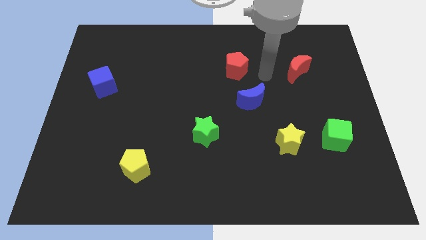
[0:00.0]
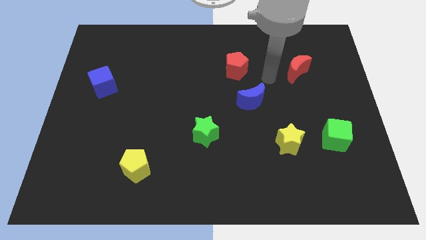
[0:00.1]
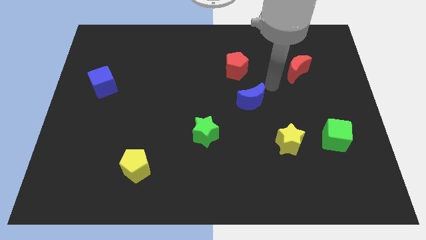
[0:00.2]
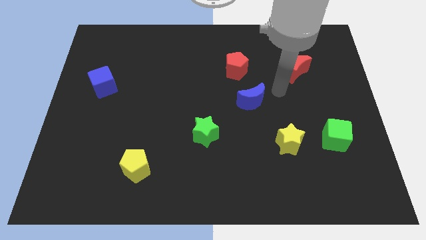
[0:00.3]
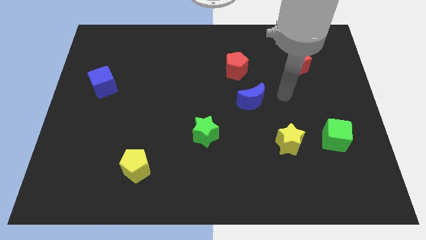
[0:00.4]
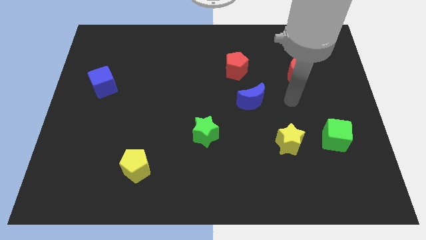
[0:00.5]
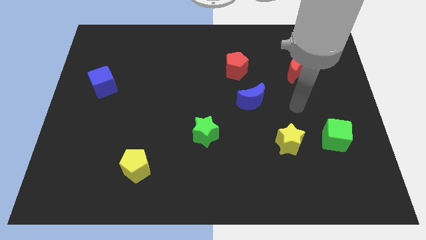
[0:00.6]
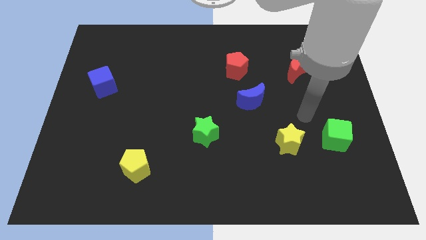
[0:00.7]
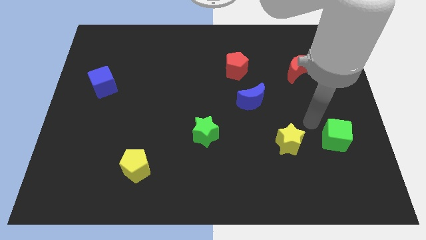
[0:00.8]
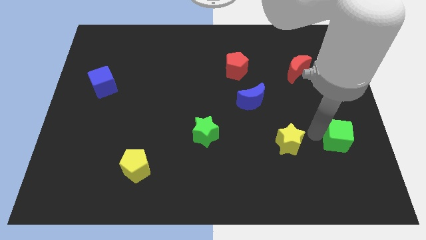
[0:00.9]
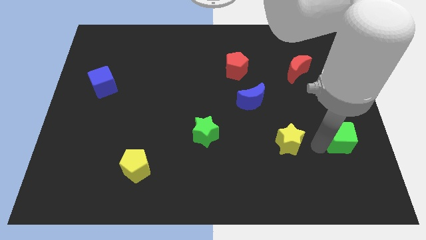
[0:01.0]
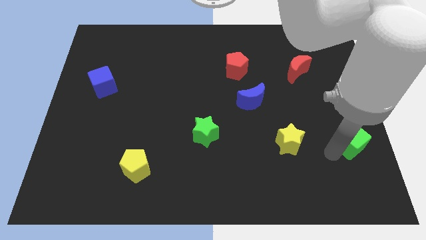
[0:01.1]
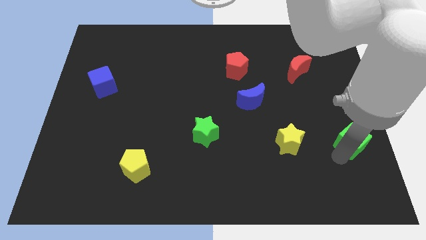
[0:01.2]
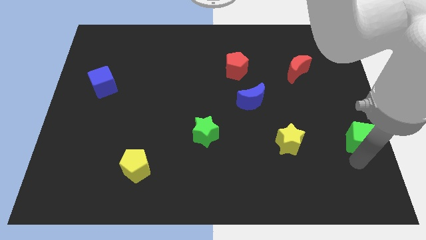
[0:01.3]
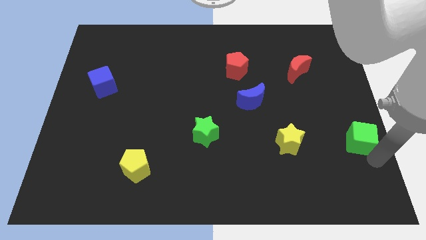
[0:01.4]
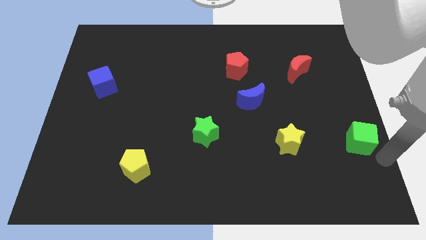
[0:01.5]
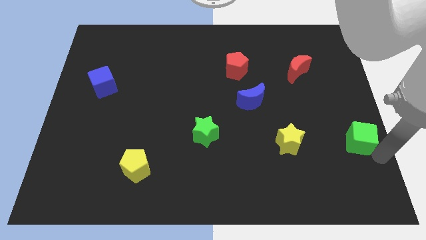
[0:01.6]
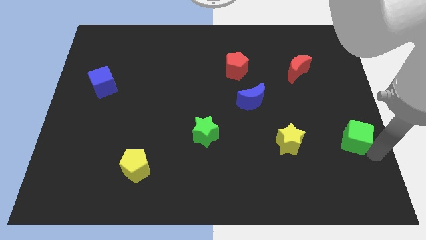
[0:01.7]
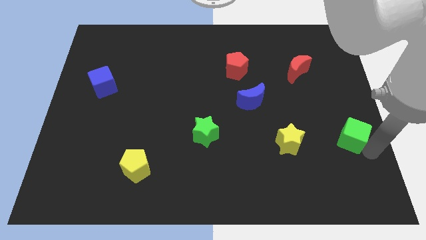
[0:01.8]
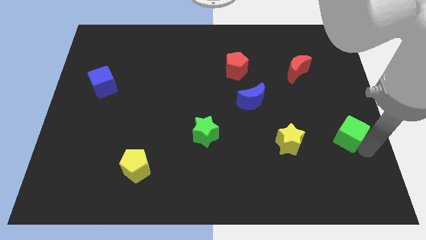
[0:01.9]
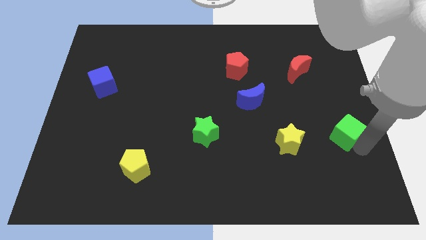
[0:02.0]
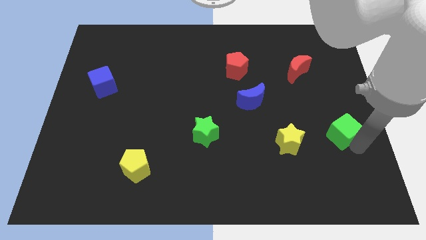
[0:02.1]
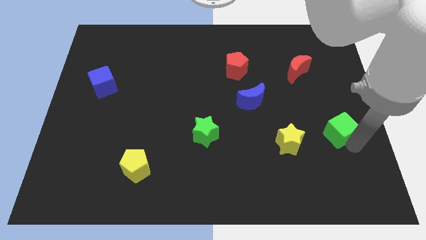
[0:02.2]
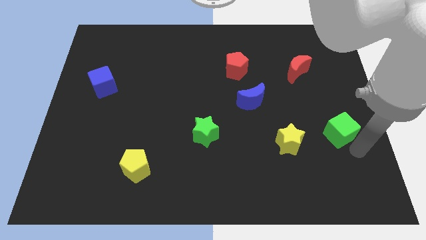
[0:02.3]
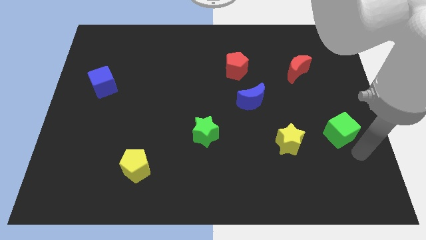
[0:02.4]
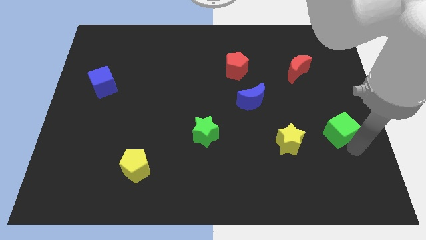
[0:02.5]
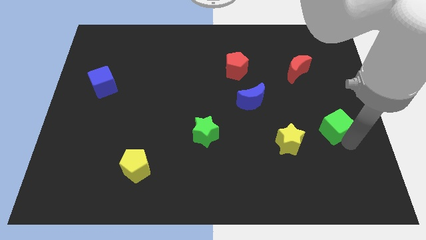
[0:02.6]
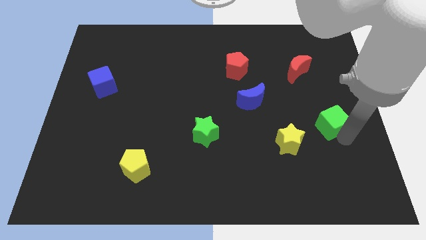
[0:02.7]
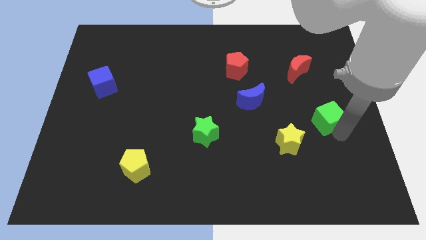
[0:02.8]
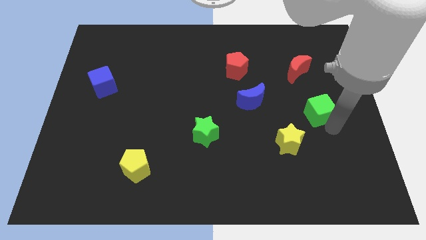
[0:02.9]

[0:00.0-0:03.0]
slightly push the green cube up

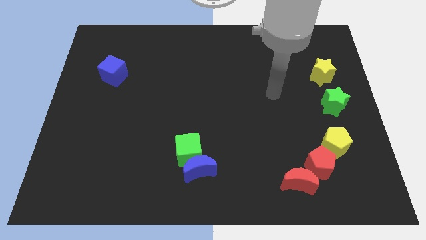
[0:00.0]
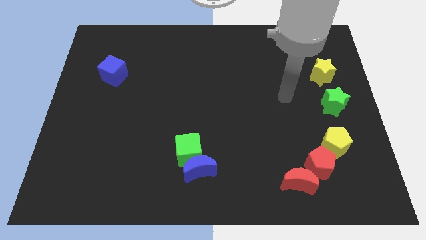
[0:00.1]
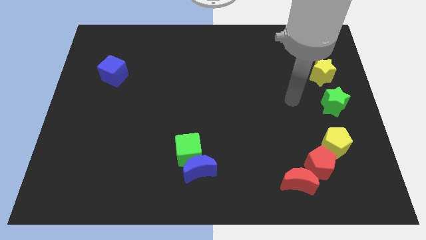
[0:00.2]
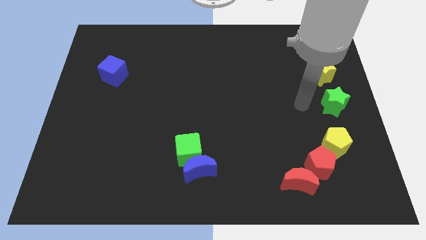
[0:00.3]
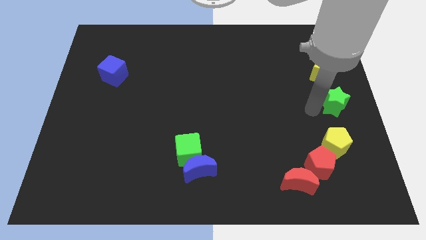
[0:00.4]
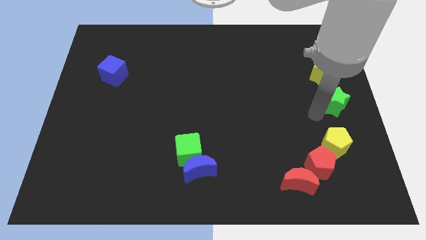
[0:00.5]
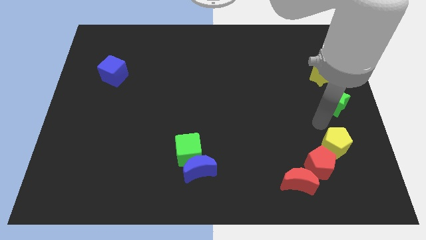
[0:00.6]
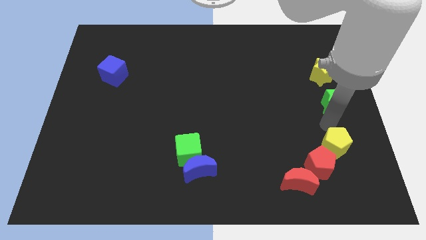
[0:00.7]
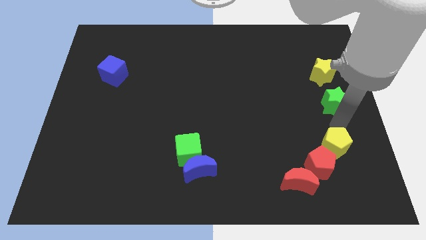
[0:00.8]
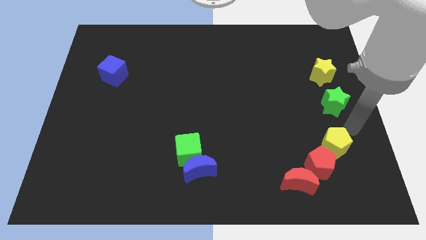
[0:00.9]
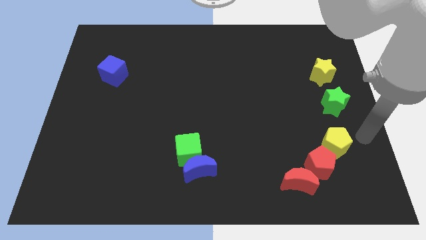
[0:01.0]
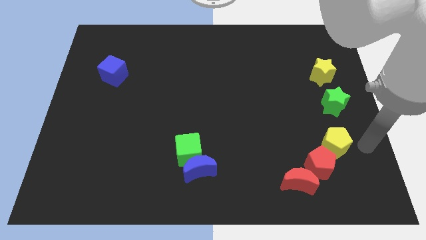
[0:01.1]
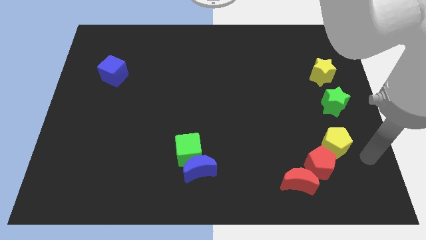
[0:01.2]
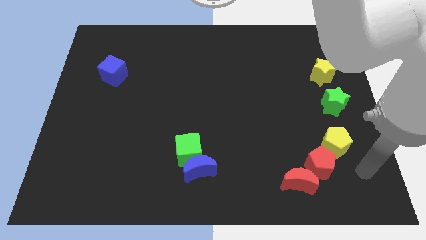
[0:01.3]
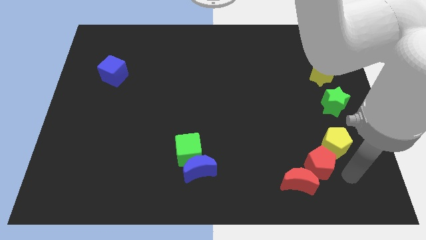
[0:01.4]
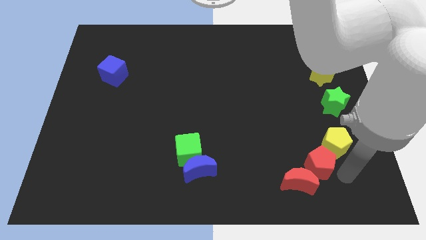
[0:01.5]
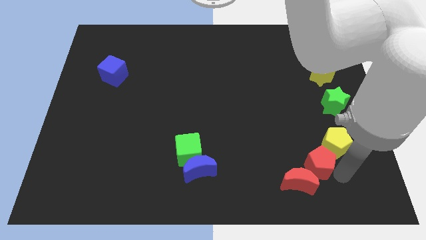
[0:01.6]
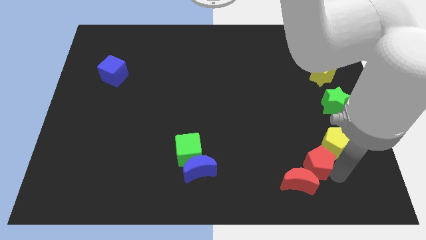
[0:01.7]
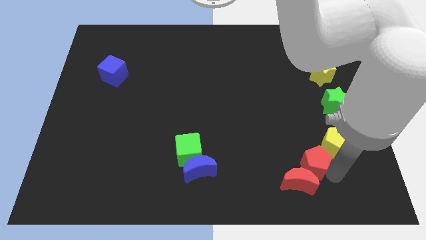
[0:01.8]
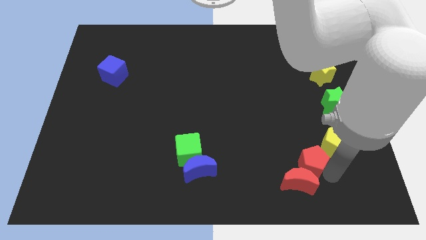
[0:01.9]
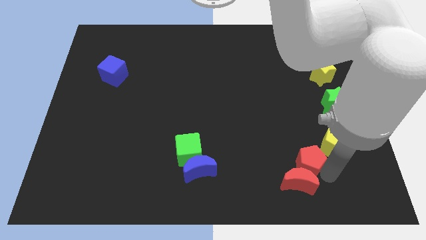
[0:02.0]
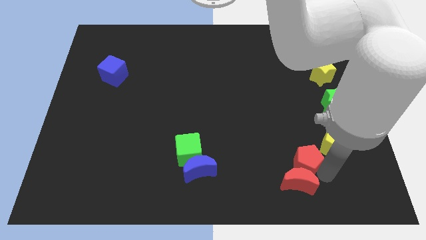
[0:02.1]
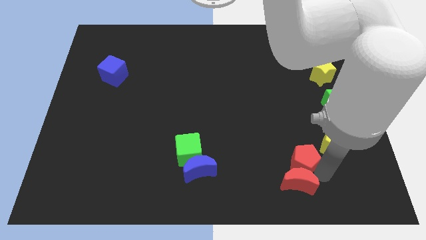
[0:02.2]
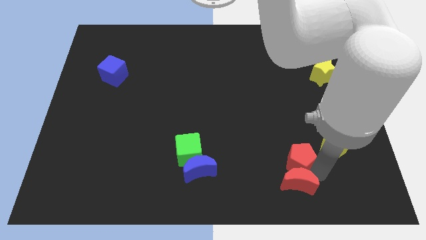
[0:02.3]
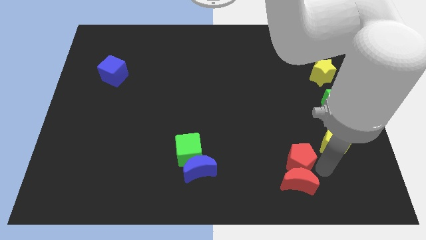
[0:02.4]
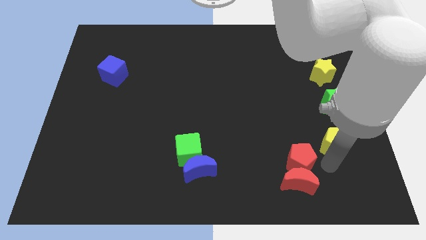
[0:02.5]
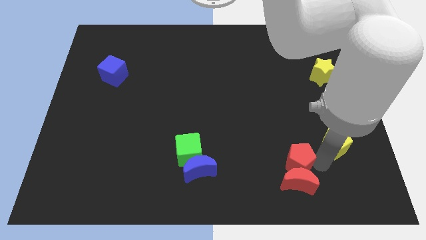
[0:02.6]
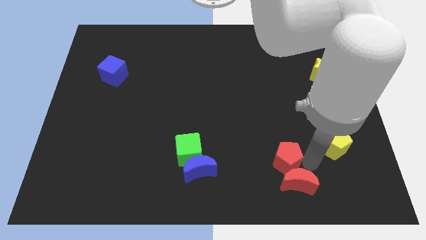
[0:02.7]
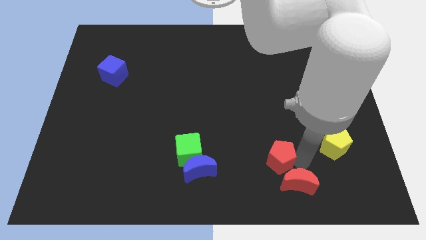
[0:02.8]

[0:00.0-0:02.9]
slightly push the red pentagon to the left

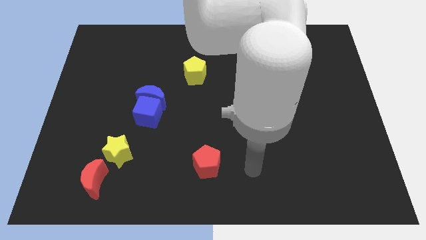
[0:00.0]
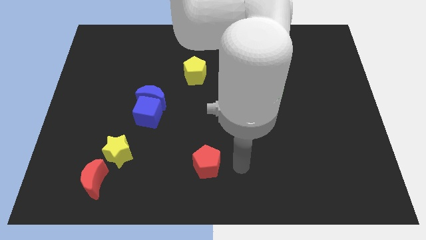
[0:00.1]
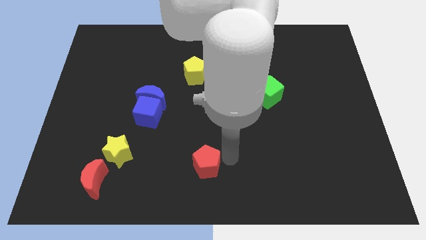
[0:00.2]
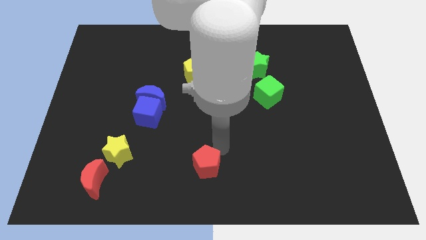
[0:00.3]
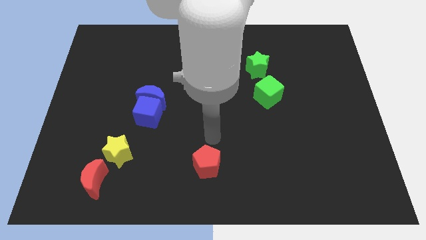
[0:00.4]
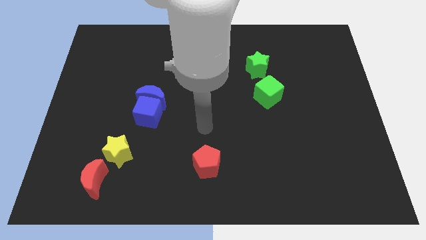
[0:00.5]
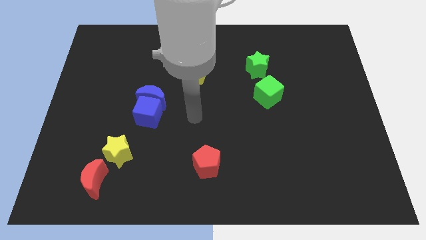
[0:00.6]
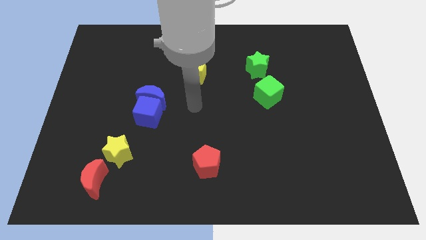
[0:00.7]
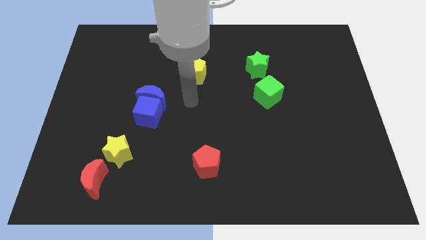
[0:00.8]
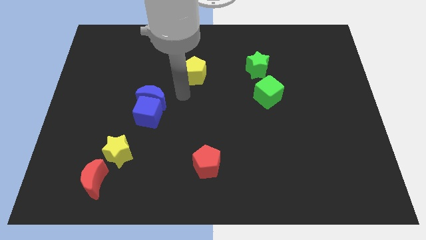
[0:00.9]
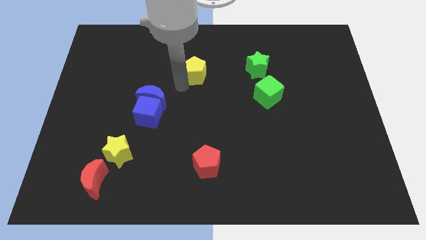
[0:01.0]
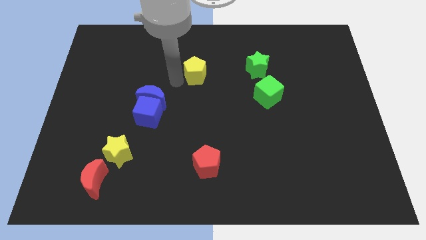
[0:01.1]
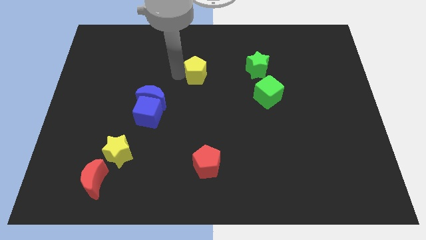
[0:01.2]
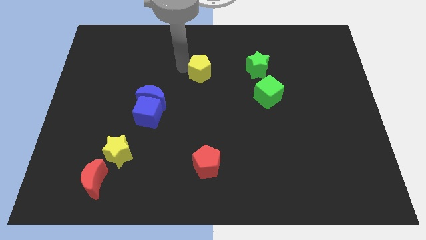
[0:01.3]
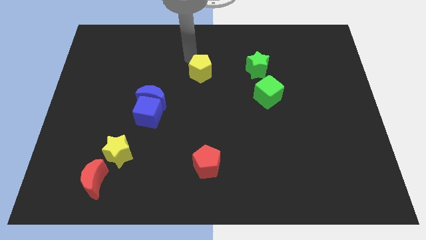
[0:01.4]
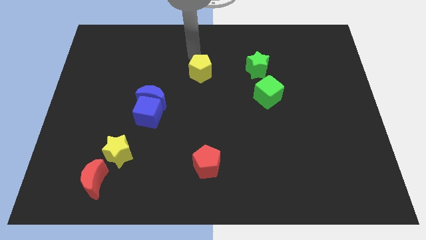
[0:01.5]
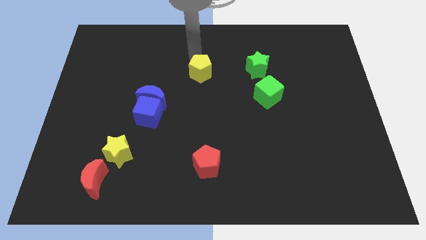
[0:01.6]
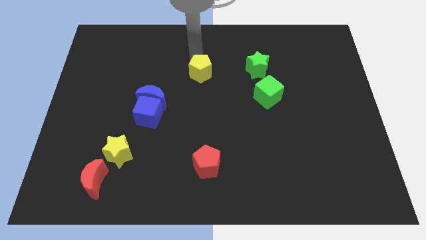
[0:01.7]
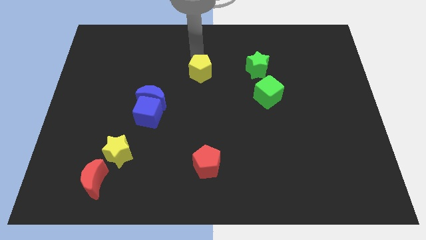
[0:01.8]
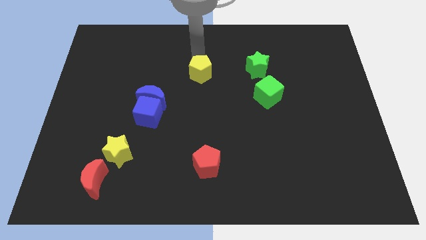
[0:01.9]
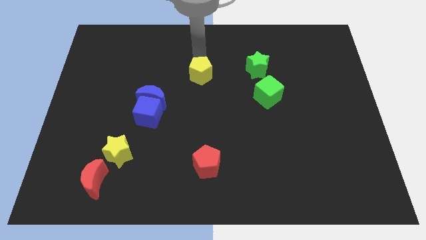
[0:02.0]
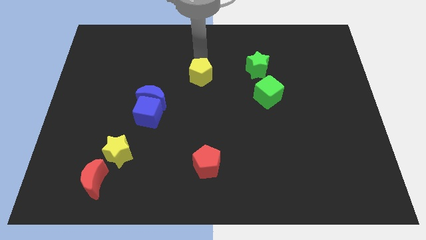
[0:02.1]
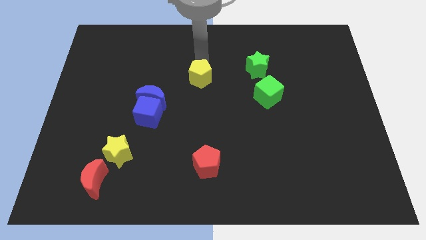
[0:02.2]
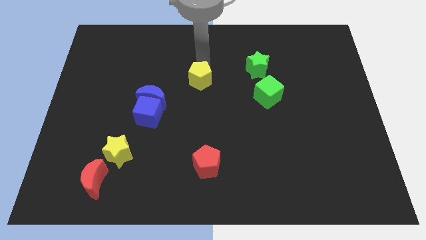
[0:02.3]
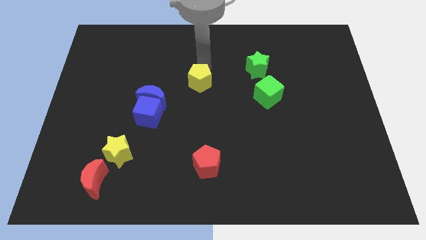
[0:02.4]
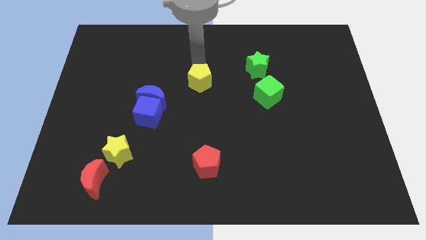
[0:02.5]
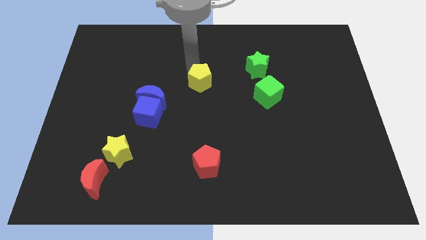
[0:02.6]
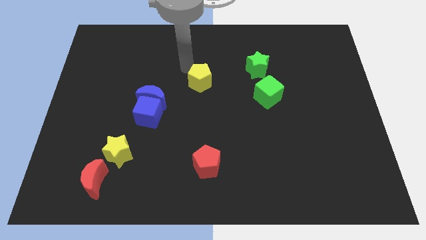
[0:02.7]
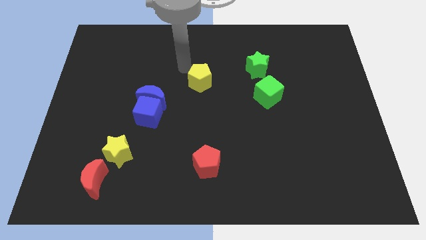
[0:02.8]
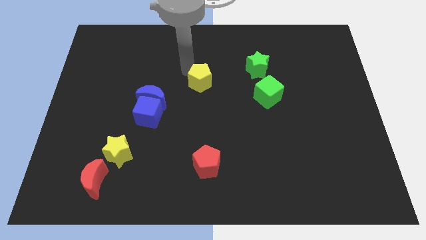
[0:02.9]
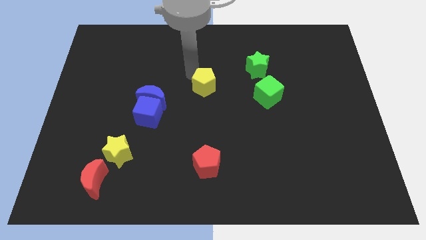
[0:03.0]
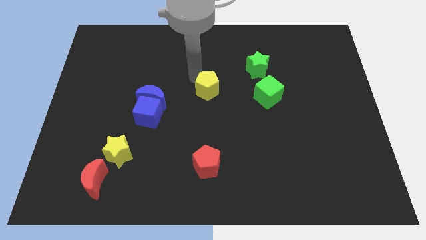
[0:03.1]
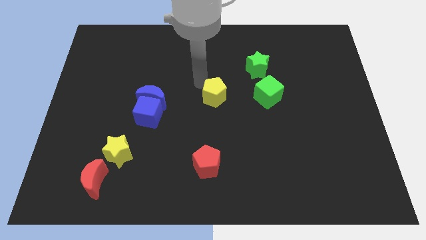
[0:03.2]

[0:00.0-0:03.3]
slightly slide the yellow pentagon downwards and right
